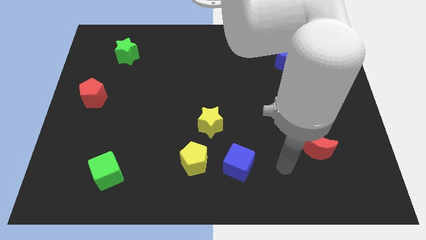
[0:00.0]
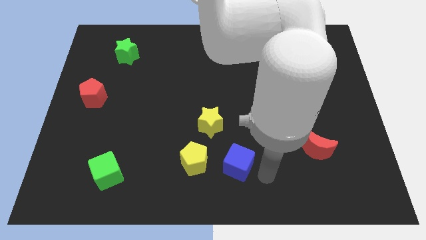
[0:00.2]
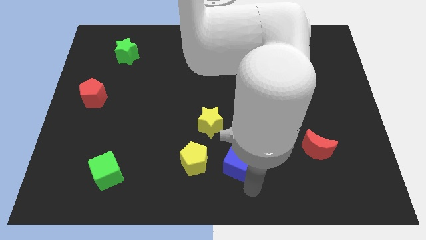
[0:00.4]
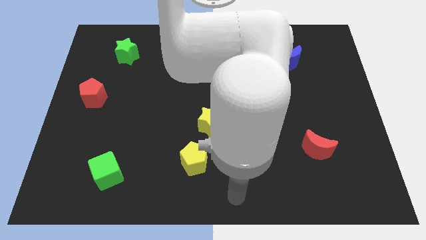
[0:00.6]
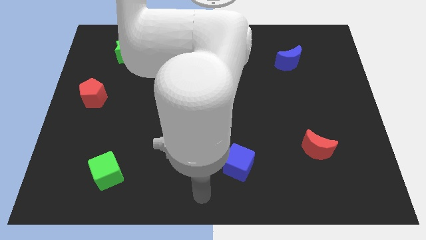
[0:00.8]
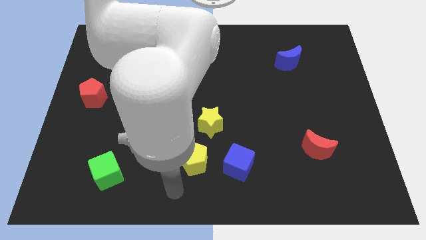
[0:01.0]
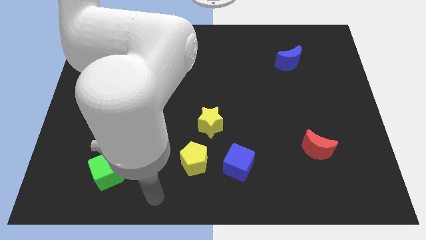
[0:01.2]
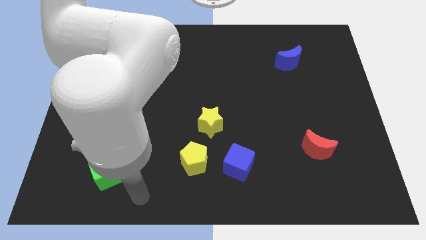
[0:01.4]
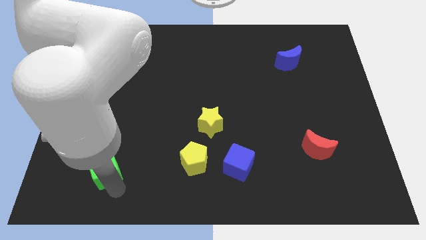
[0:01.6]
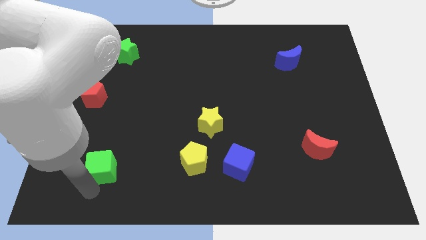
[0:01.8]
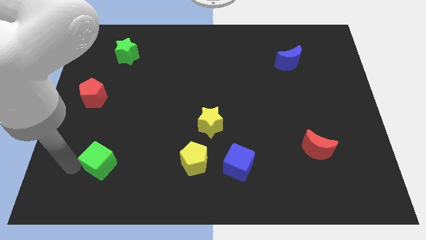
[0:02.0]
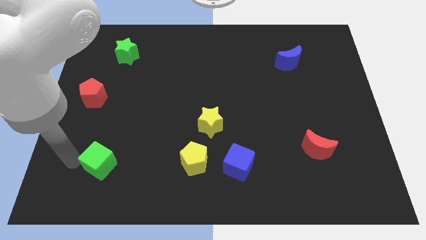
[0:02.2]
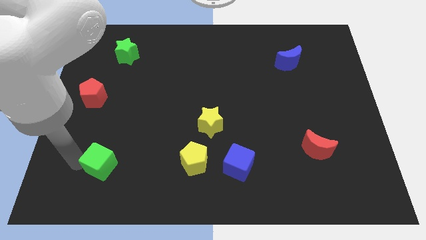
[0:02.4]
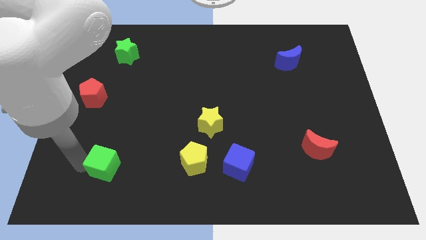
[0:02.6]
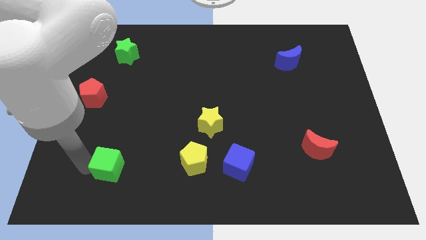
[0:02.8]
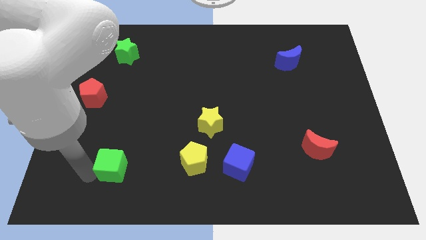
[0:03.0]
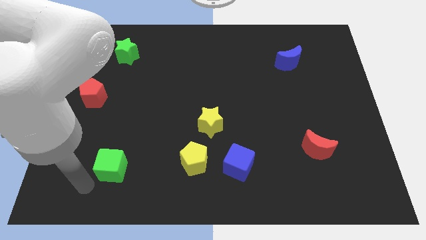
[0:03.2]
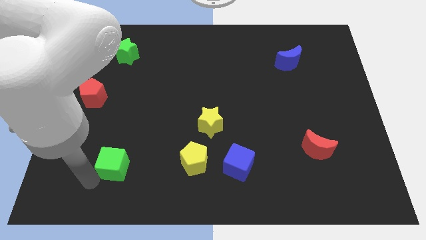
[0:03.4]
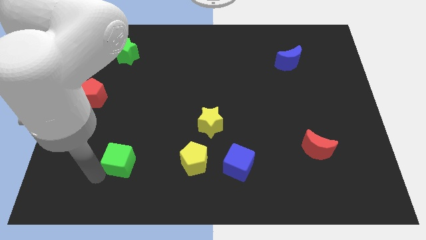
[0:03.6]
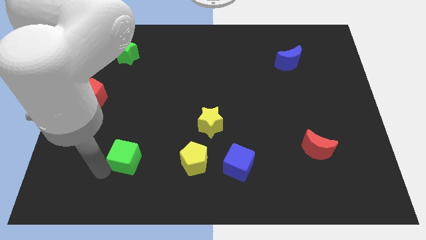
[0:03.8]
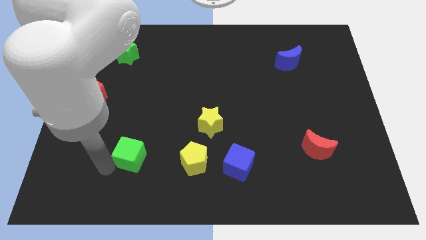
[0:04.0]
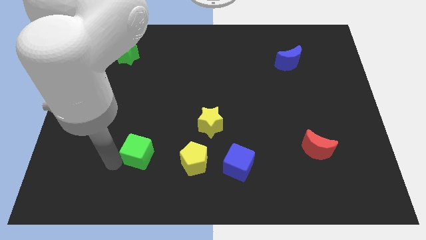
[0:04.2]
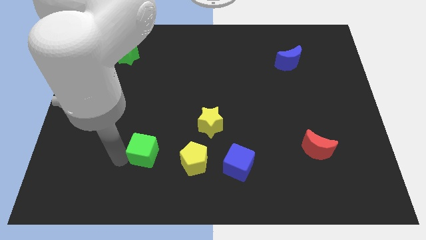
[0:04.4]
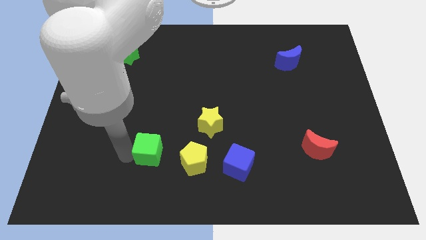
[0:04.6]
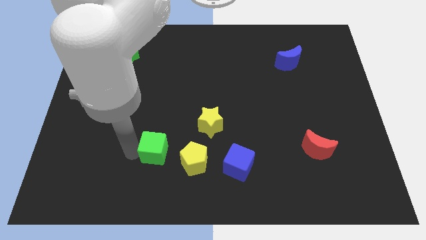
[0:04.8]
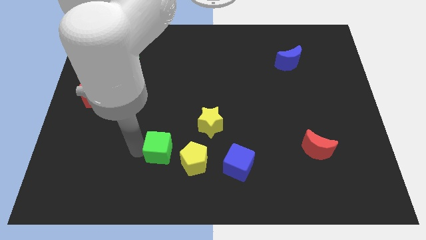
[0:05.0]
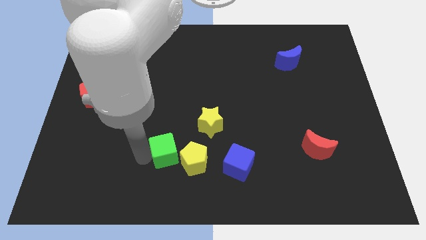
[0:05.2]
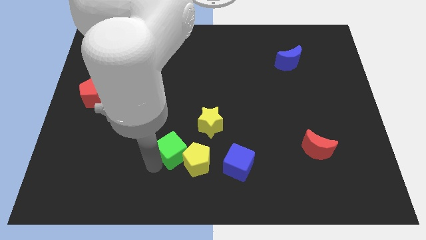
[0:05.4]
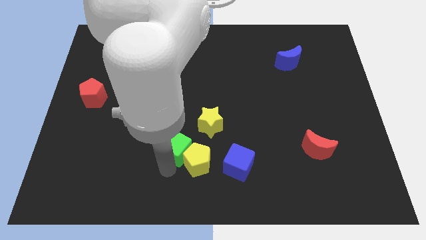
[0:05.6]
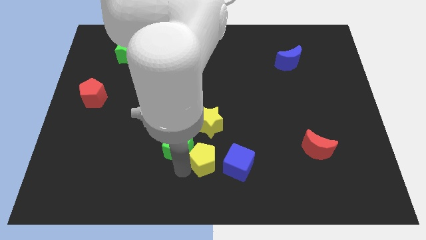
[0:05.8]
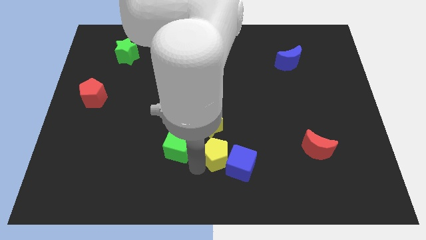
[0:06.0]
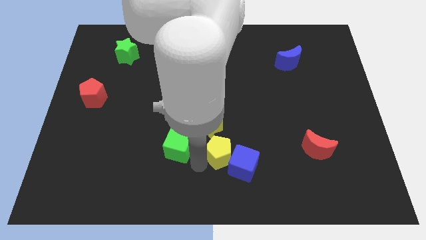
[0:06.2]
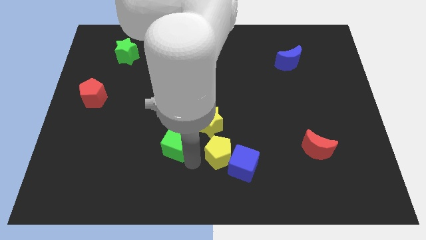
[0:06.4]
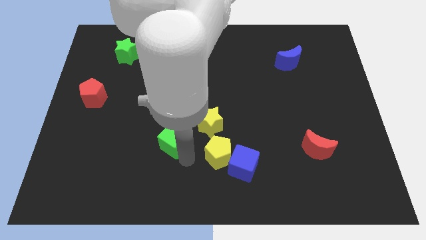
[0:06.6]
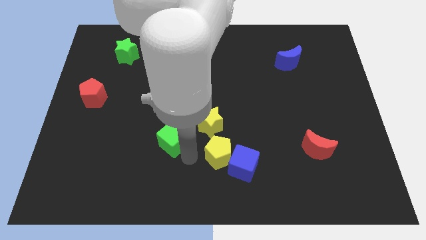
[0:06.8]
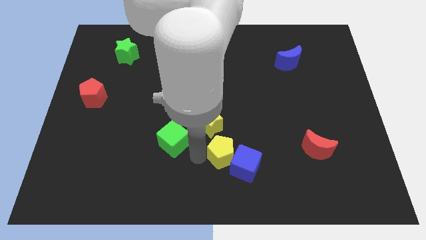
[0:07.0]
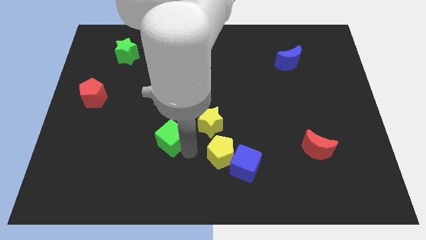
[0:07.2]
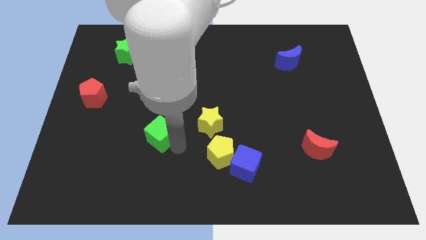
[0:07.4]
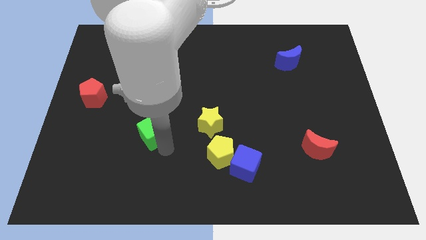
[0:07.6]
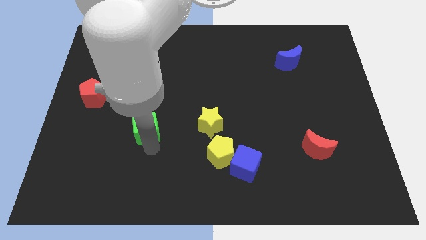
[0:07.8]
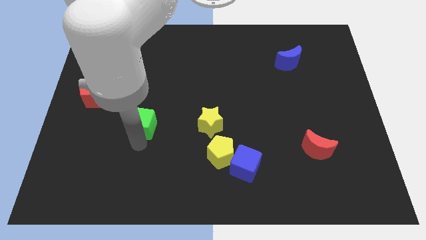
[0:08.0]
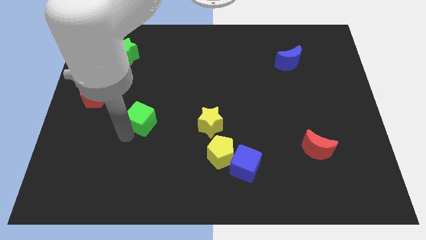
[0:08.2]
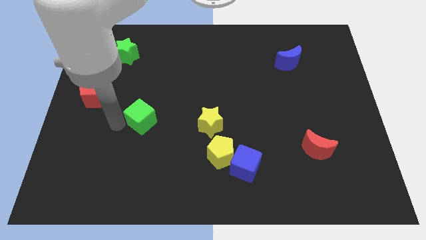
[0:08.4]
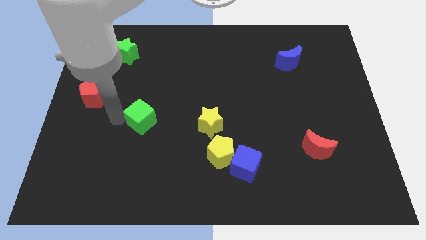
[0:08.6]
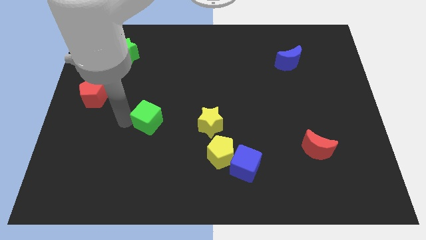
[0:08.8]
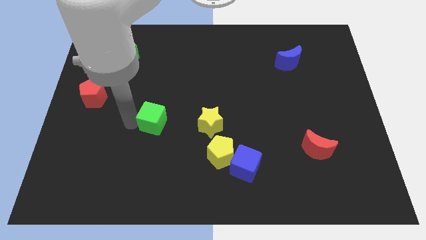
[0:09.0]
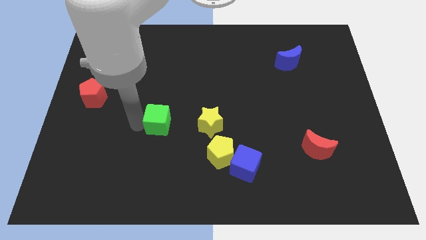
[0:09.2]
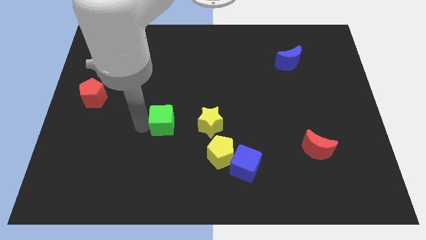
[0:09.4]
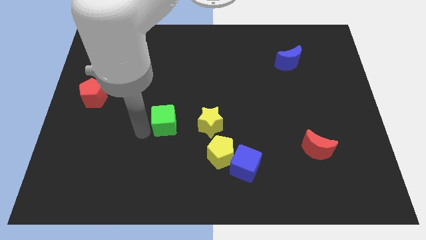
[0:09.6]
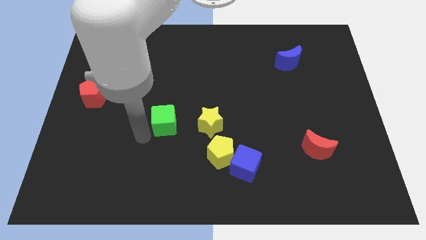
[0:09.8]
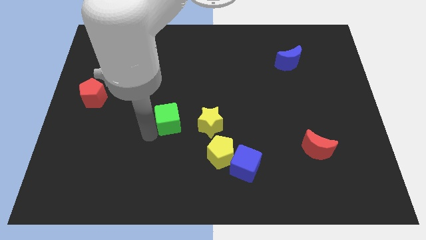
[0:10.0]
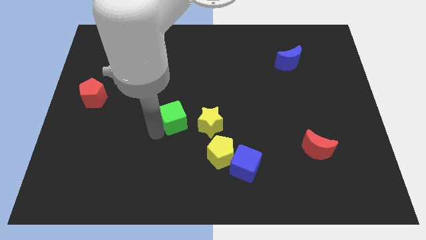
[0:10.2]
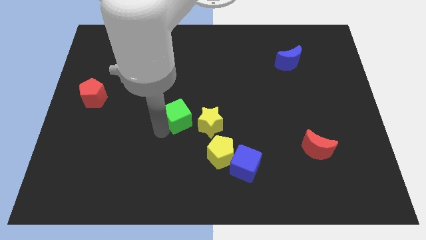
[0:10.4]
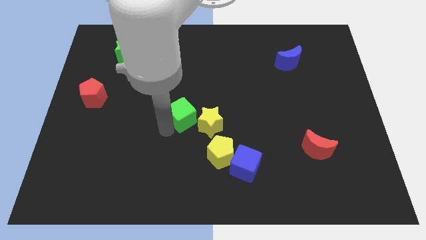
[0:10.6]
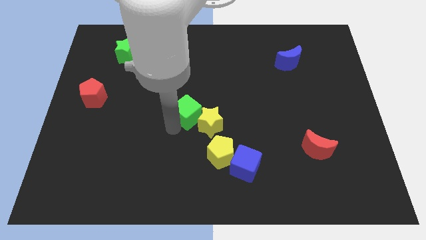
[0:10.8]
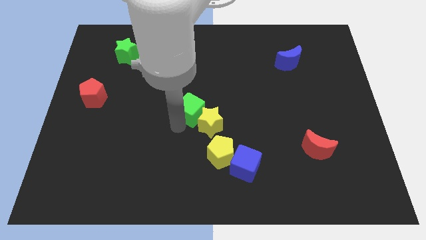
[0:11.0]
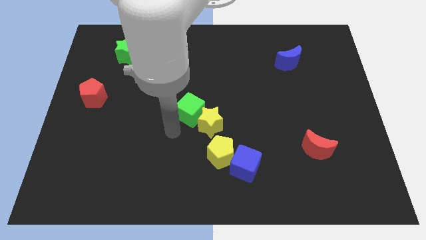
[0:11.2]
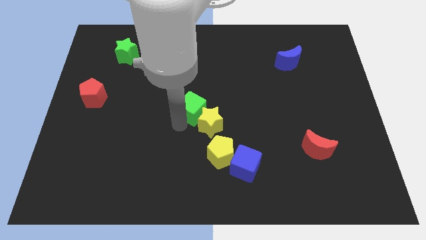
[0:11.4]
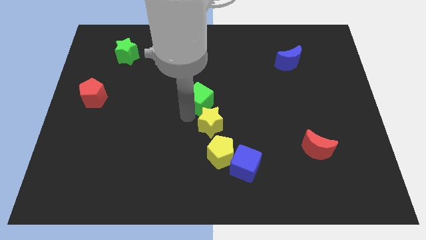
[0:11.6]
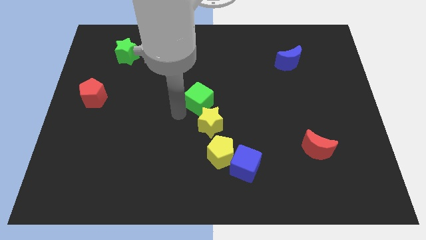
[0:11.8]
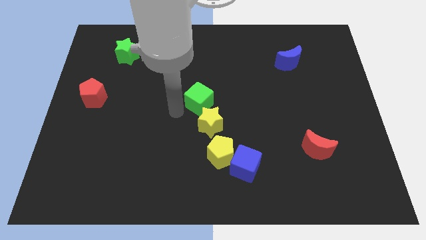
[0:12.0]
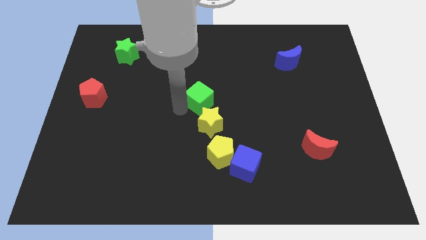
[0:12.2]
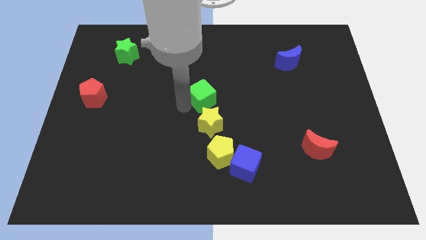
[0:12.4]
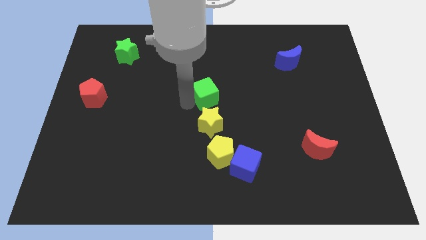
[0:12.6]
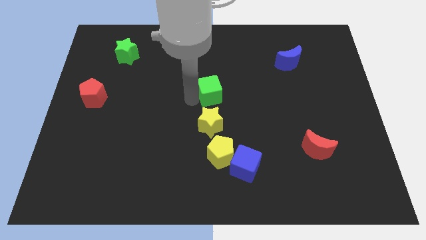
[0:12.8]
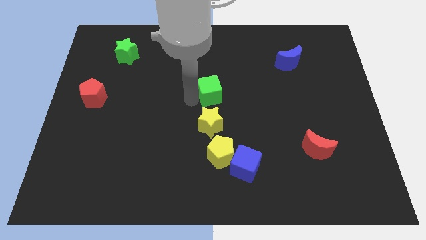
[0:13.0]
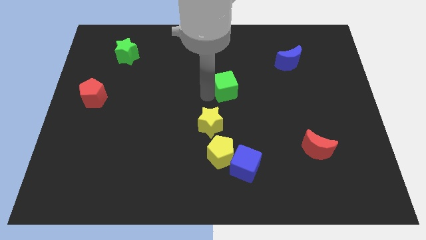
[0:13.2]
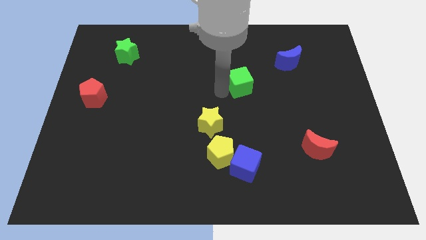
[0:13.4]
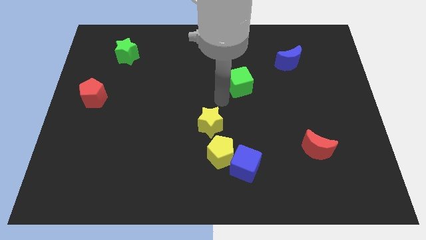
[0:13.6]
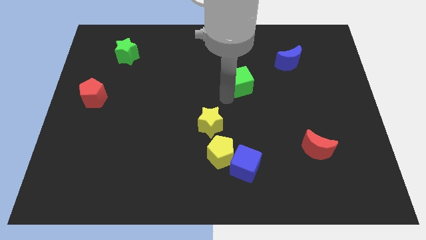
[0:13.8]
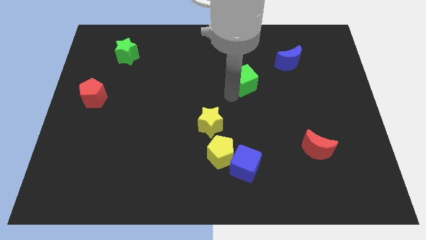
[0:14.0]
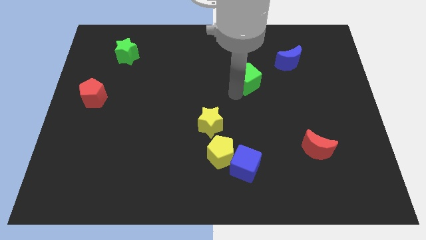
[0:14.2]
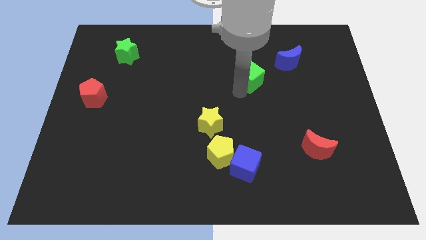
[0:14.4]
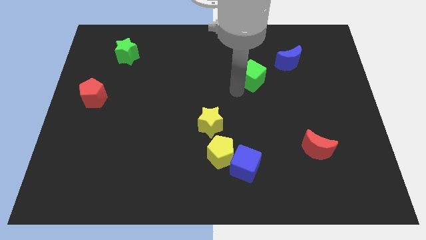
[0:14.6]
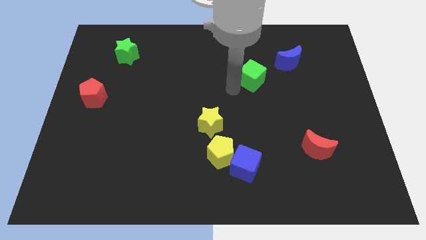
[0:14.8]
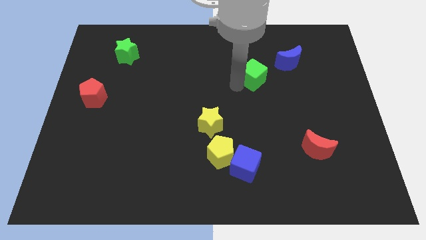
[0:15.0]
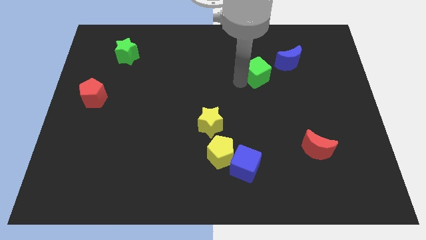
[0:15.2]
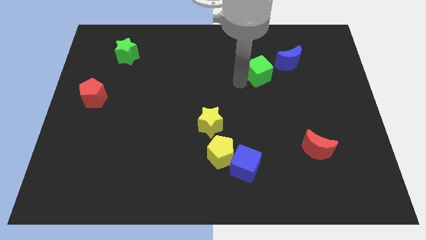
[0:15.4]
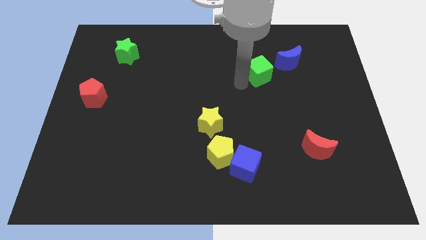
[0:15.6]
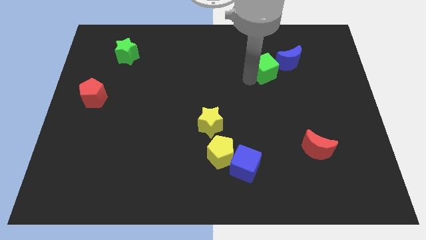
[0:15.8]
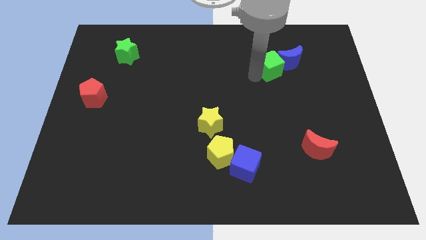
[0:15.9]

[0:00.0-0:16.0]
move the green cube next to the blue moon
